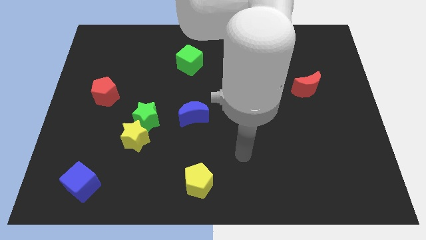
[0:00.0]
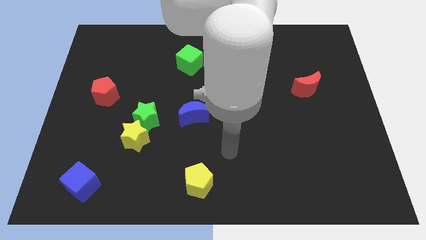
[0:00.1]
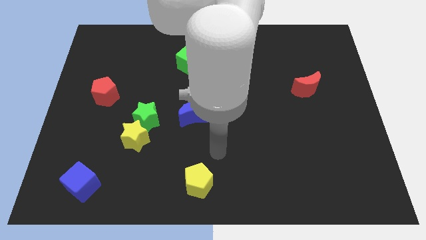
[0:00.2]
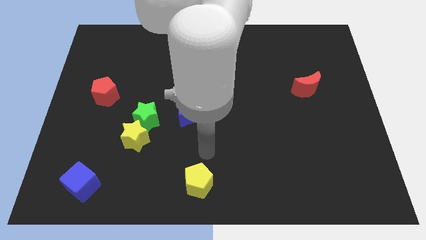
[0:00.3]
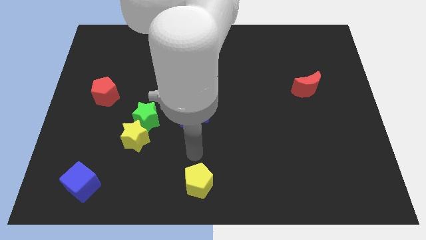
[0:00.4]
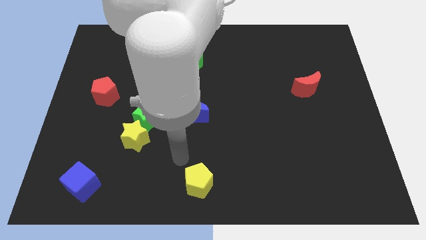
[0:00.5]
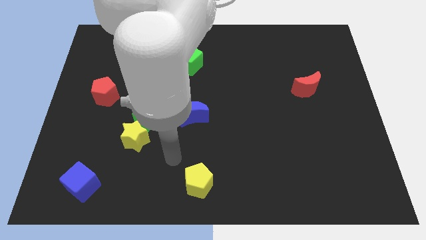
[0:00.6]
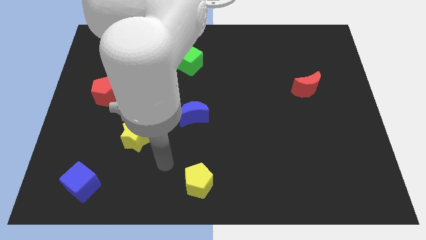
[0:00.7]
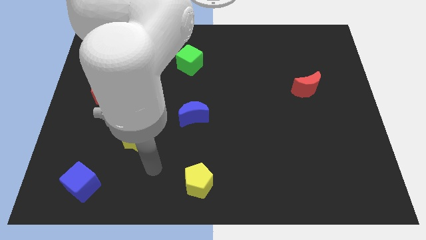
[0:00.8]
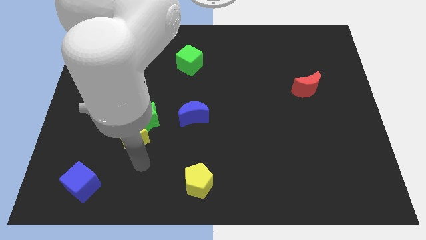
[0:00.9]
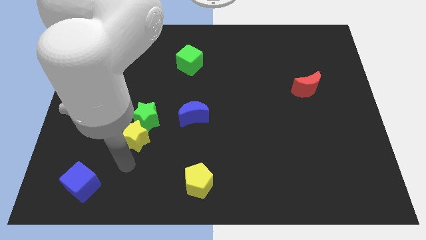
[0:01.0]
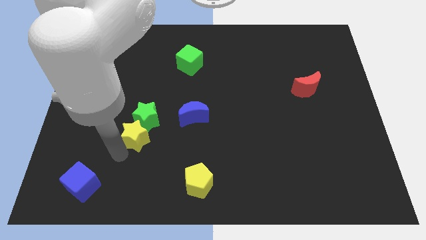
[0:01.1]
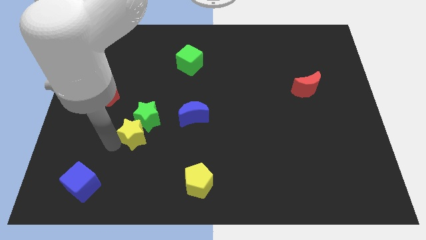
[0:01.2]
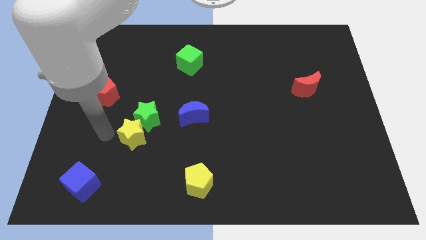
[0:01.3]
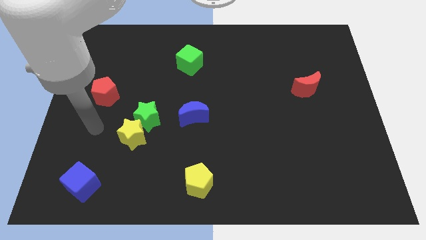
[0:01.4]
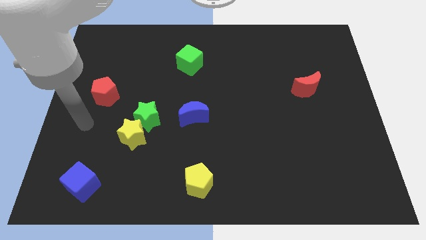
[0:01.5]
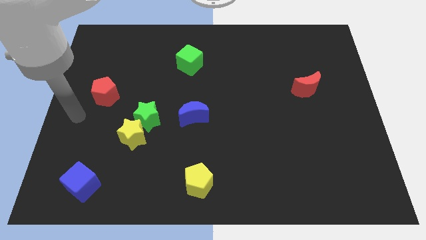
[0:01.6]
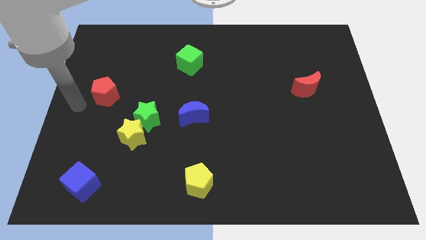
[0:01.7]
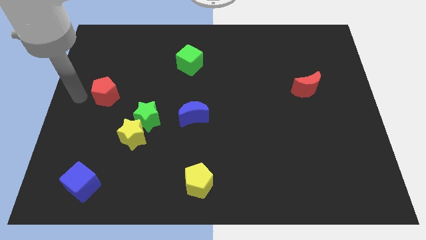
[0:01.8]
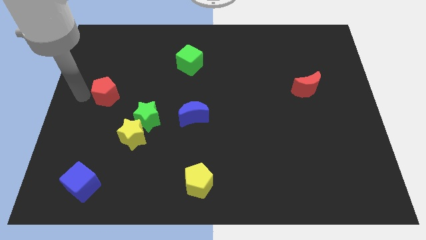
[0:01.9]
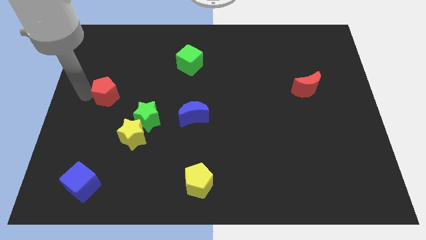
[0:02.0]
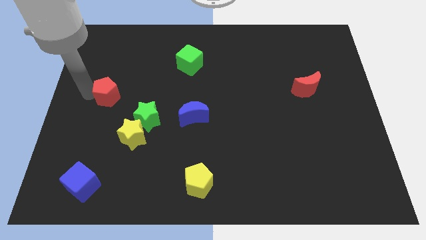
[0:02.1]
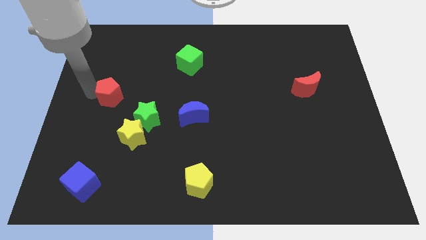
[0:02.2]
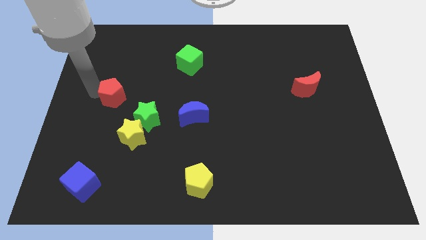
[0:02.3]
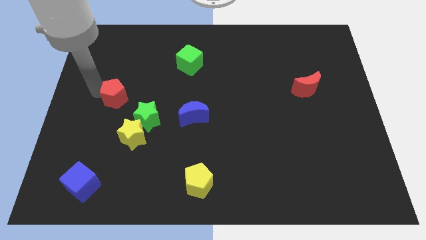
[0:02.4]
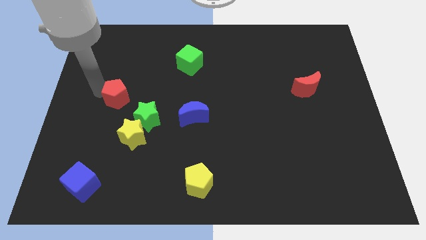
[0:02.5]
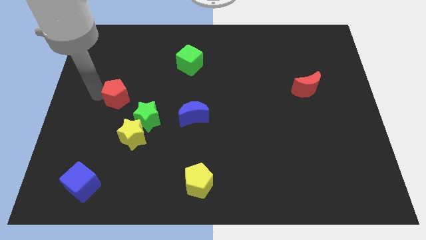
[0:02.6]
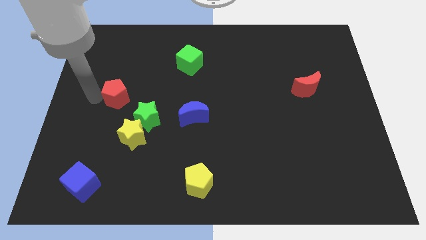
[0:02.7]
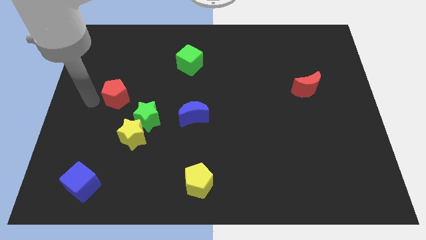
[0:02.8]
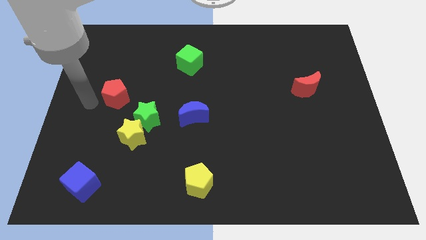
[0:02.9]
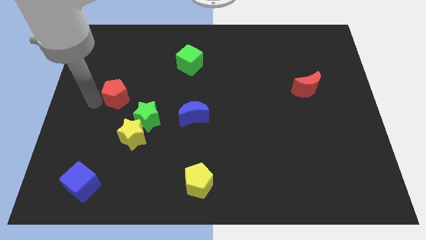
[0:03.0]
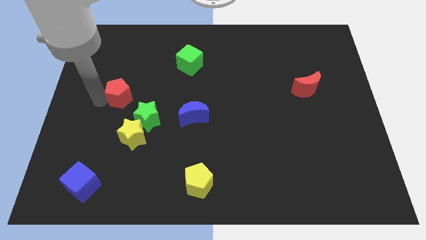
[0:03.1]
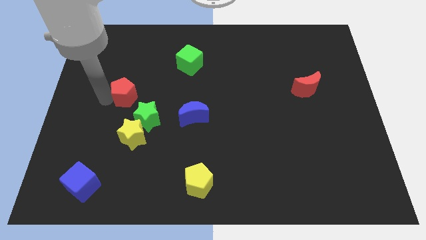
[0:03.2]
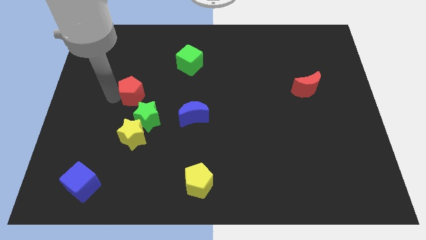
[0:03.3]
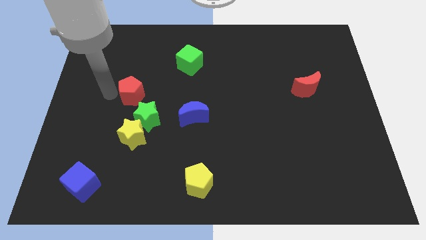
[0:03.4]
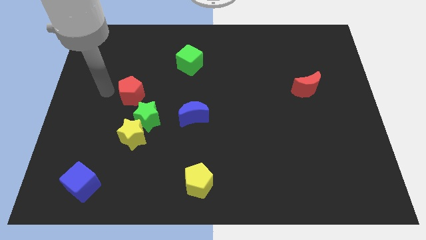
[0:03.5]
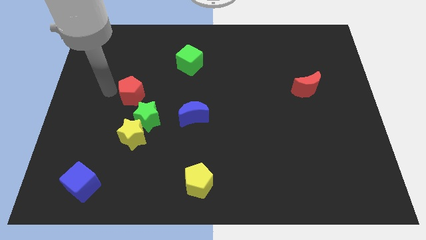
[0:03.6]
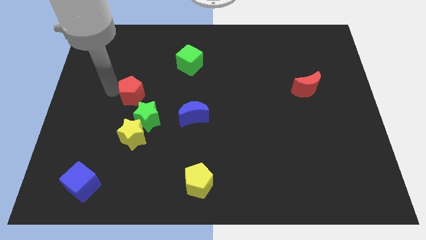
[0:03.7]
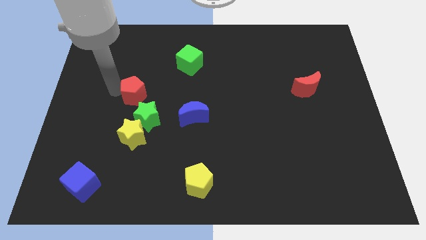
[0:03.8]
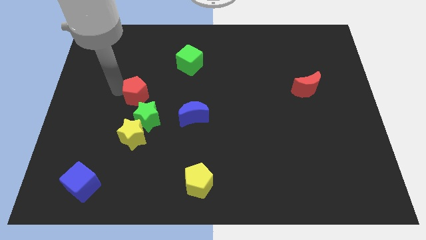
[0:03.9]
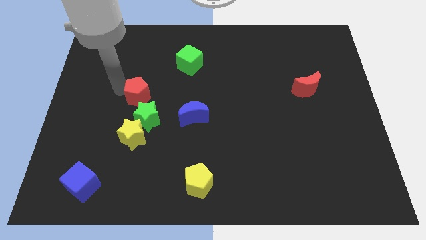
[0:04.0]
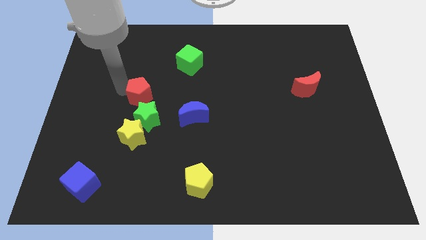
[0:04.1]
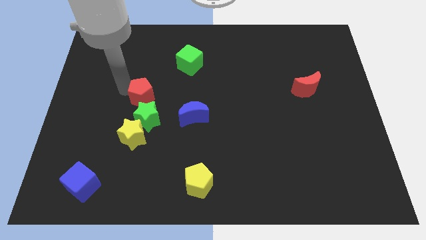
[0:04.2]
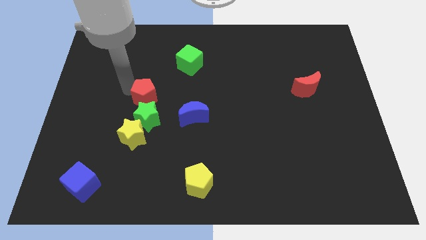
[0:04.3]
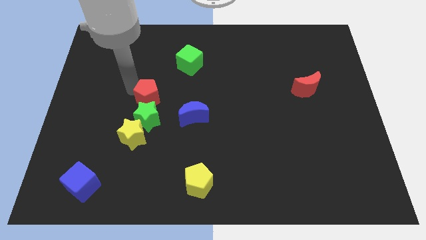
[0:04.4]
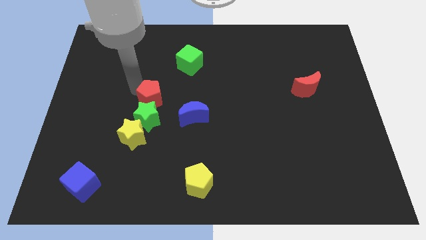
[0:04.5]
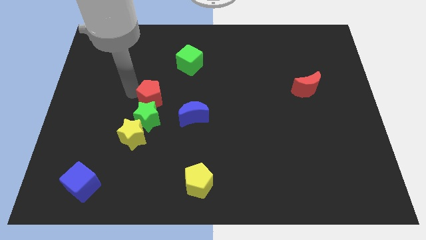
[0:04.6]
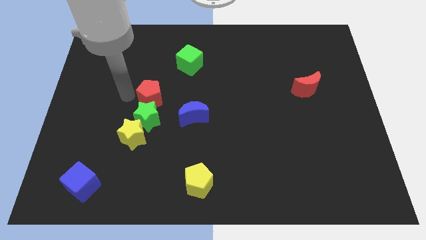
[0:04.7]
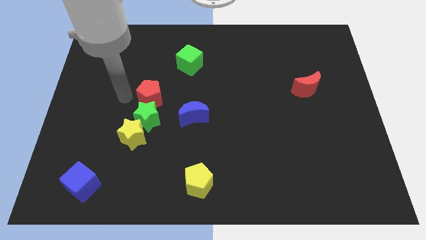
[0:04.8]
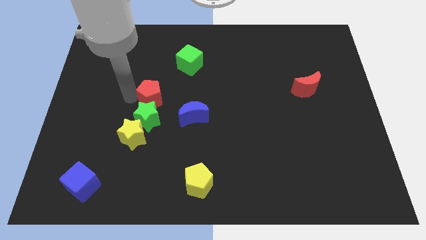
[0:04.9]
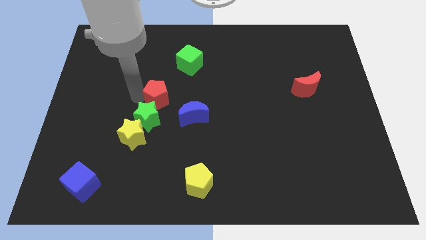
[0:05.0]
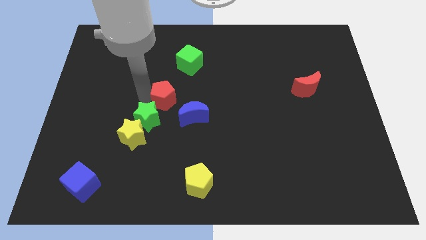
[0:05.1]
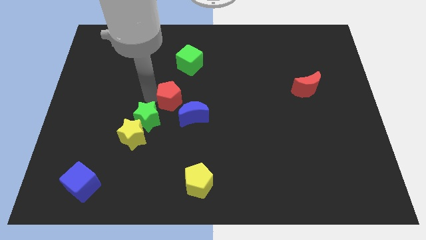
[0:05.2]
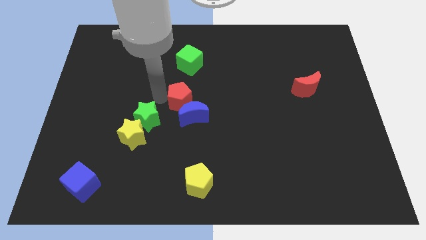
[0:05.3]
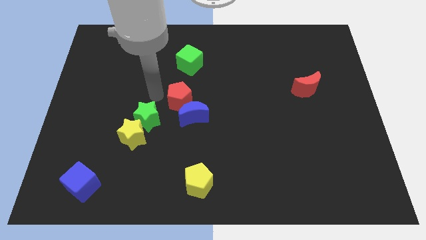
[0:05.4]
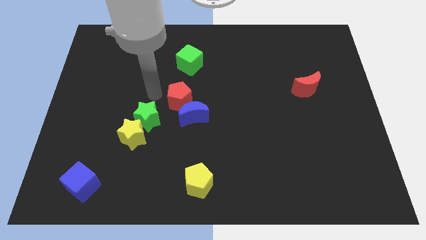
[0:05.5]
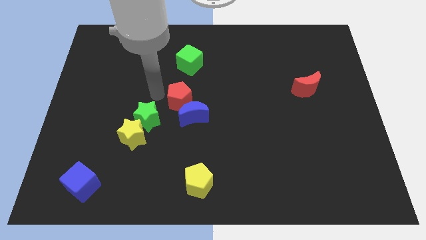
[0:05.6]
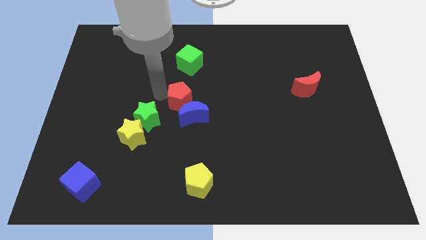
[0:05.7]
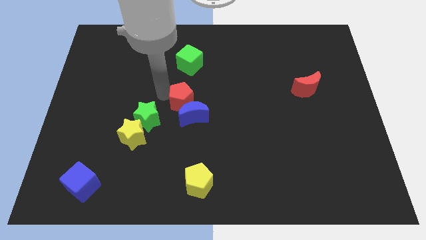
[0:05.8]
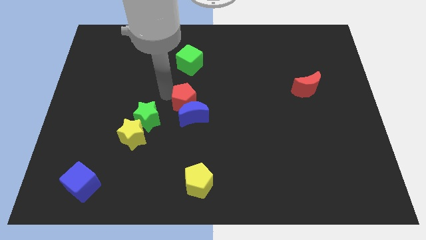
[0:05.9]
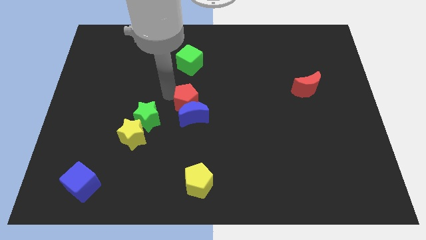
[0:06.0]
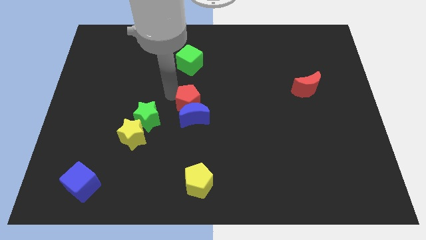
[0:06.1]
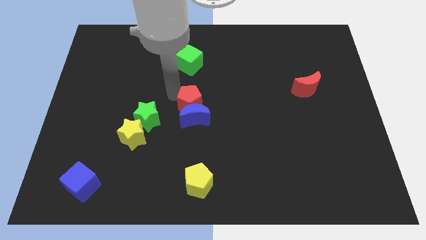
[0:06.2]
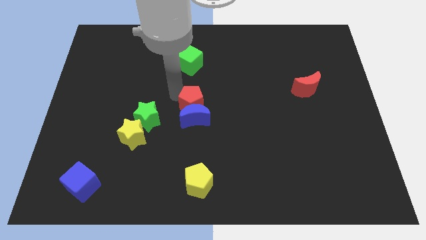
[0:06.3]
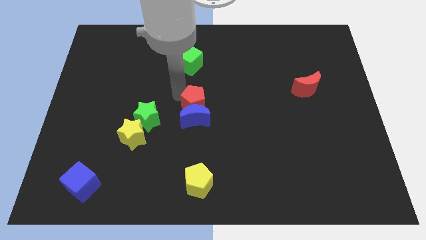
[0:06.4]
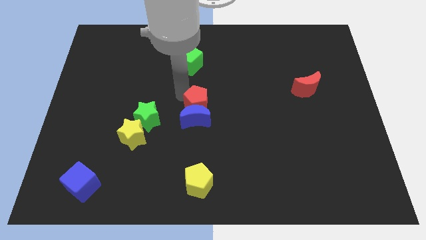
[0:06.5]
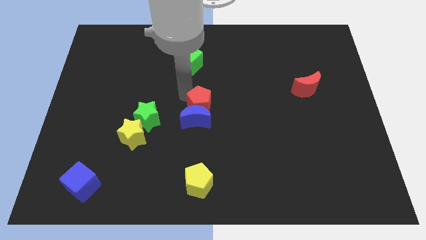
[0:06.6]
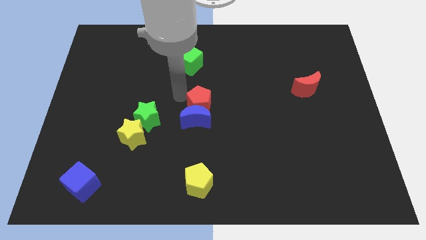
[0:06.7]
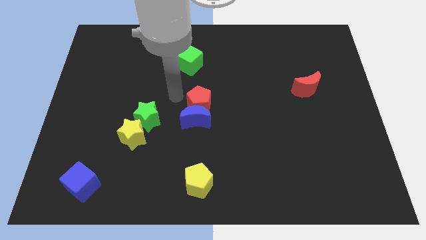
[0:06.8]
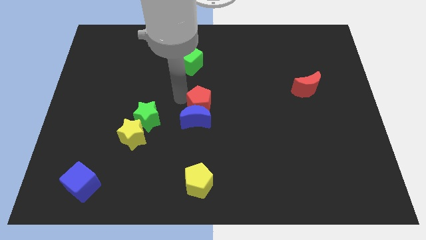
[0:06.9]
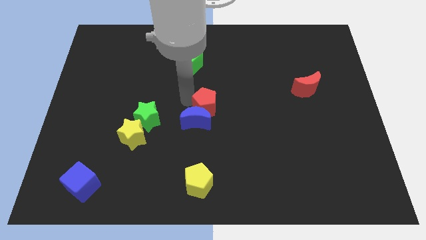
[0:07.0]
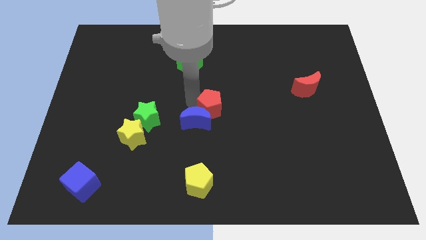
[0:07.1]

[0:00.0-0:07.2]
put the red pentagon just right of the blue moon
